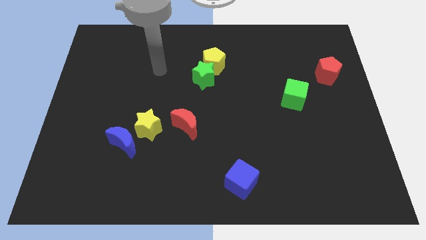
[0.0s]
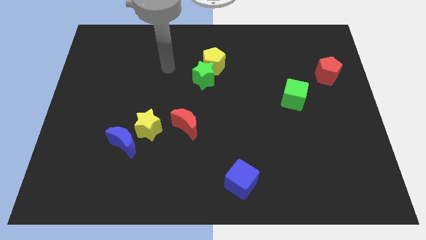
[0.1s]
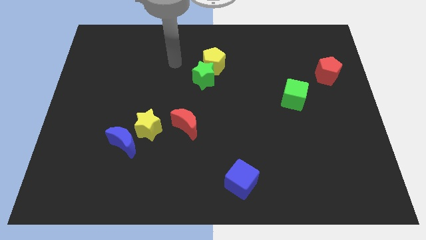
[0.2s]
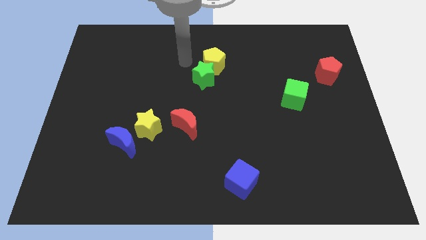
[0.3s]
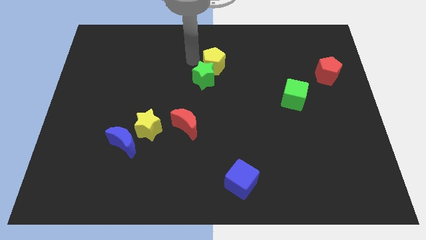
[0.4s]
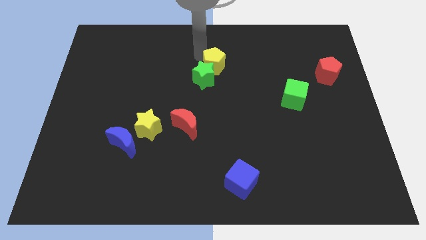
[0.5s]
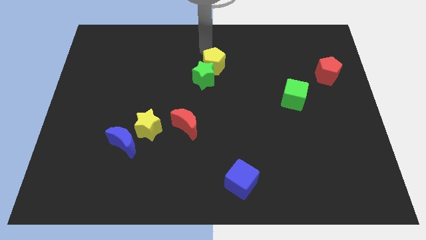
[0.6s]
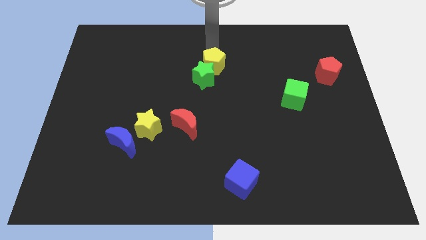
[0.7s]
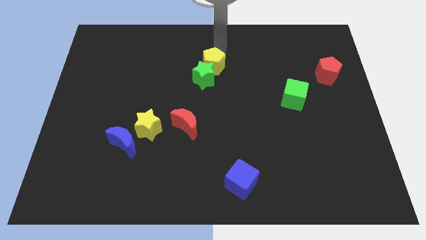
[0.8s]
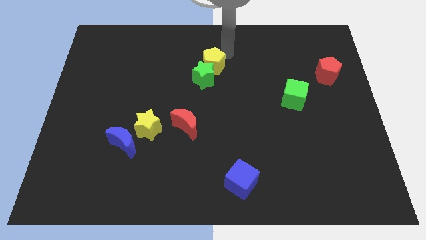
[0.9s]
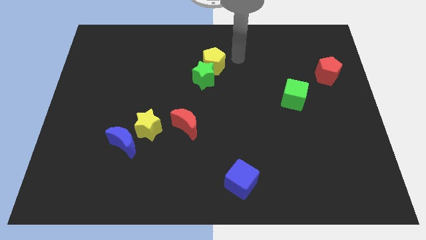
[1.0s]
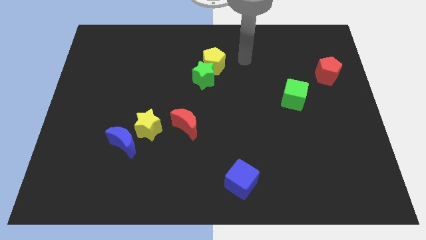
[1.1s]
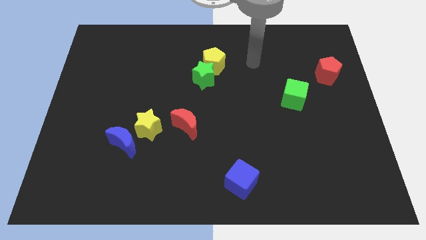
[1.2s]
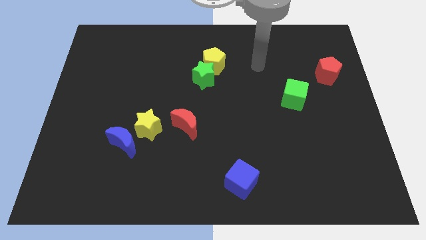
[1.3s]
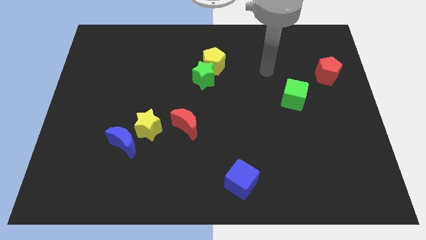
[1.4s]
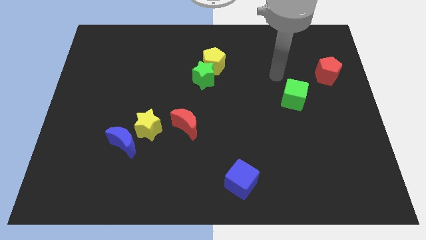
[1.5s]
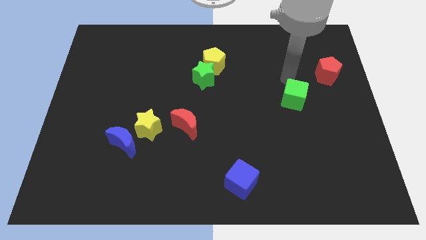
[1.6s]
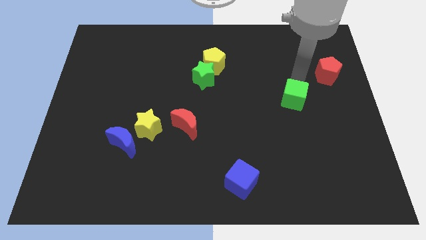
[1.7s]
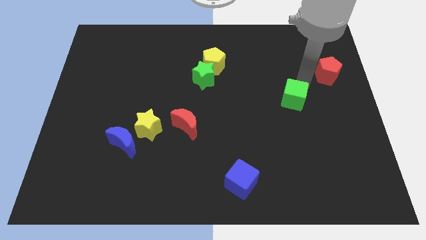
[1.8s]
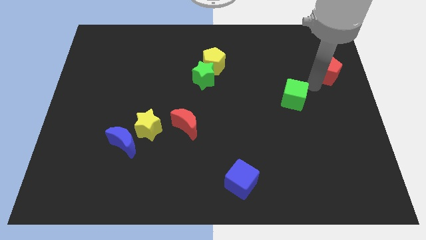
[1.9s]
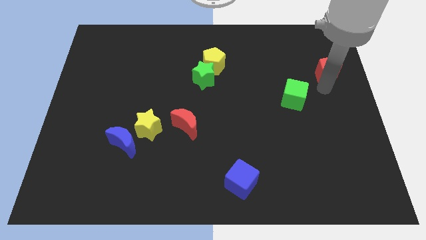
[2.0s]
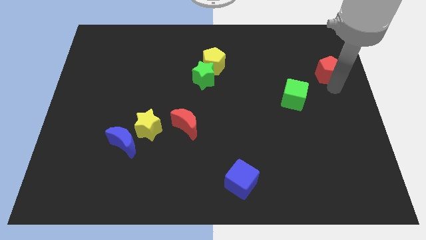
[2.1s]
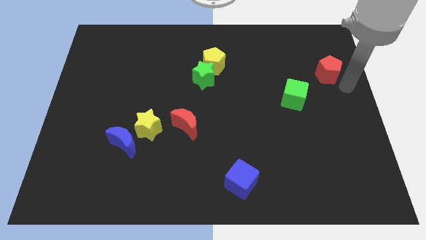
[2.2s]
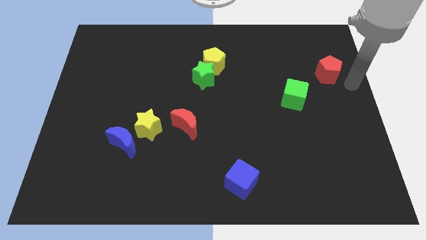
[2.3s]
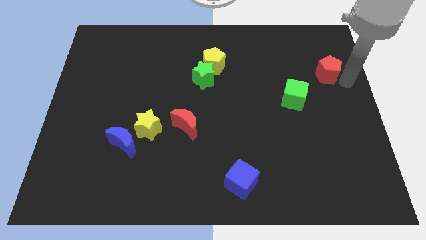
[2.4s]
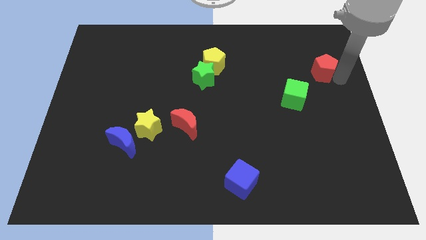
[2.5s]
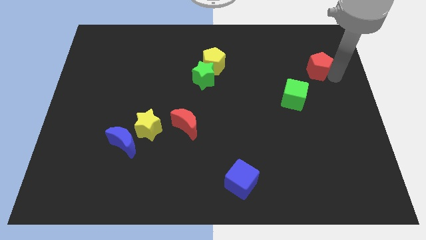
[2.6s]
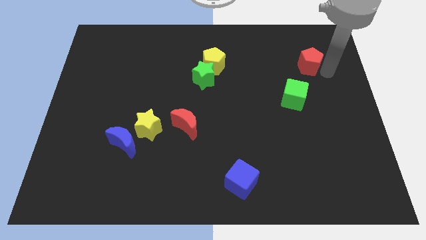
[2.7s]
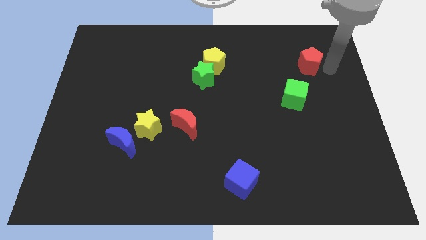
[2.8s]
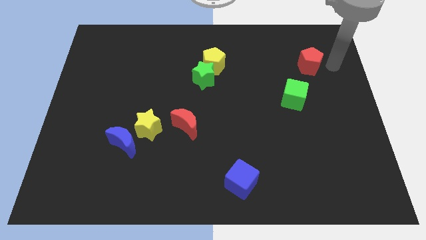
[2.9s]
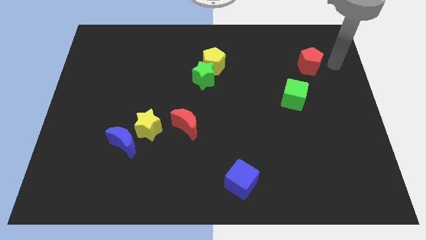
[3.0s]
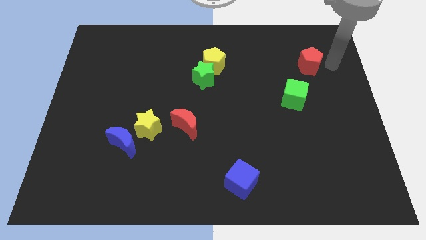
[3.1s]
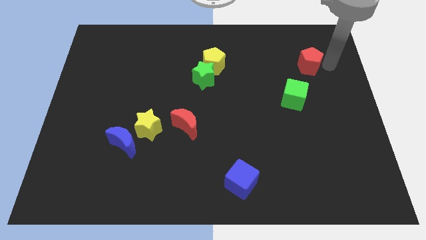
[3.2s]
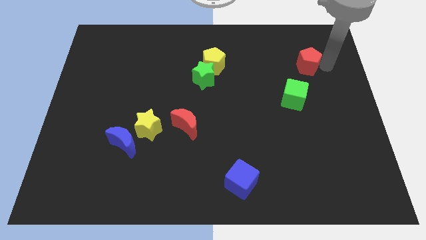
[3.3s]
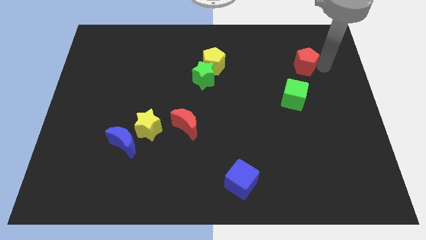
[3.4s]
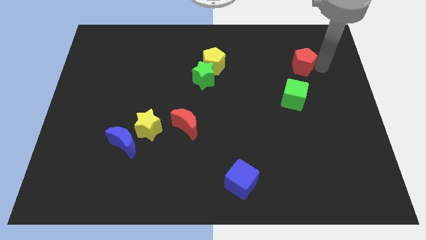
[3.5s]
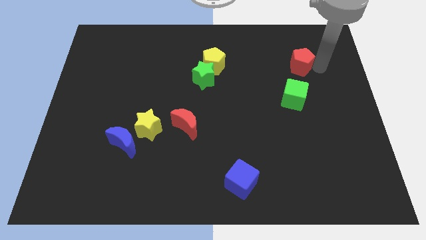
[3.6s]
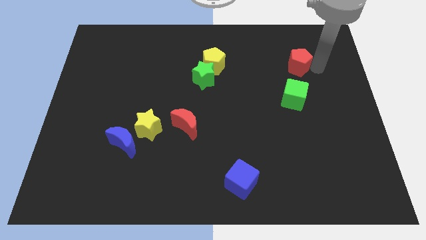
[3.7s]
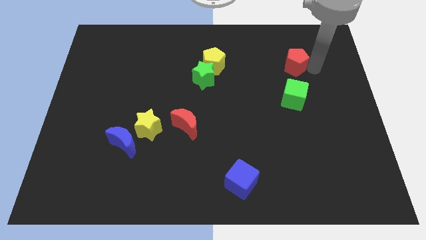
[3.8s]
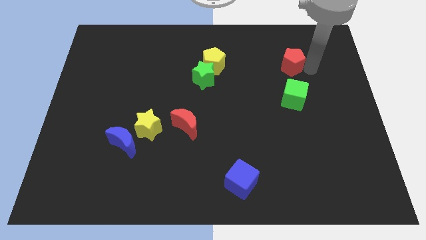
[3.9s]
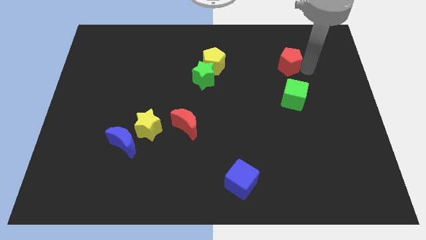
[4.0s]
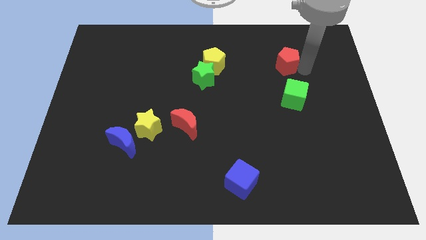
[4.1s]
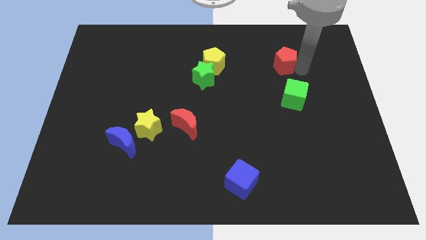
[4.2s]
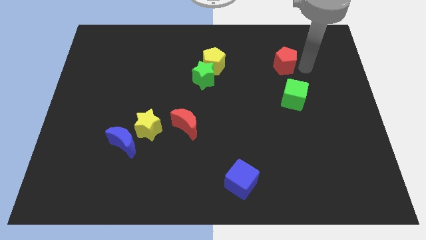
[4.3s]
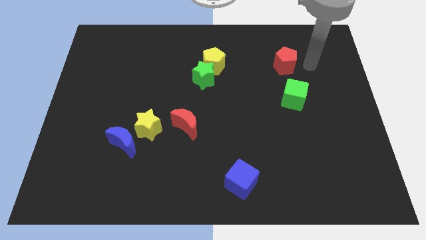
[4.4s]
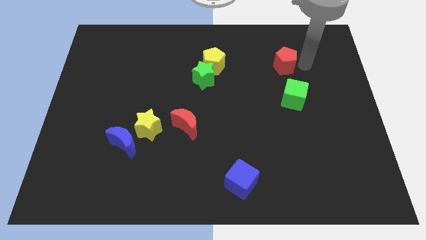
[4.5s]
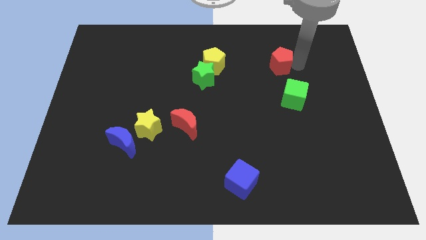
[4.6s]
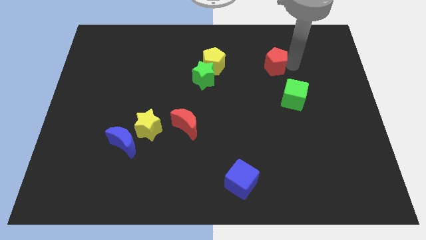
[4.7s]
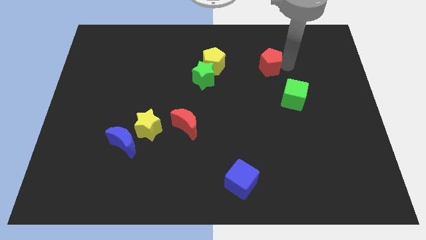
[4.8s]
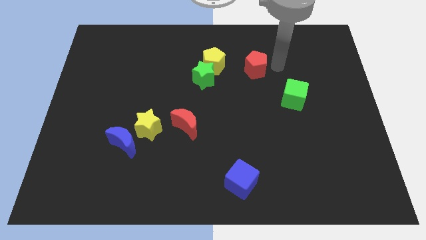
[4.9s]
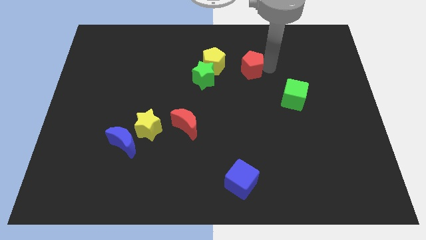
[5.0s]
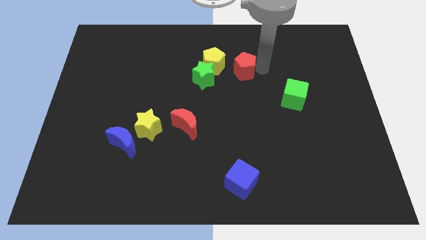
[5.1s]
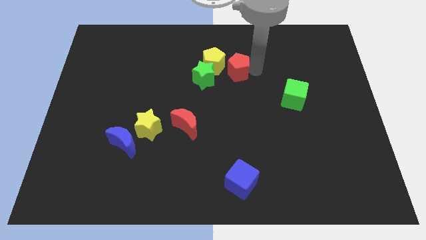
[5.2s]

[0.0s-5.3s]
move the red pentagon diagonally up and to the right of the green star
